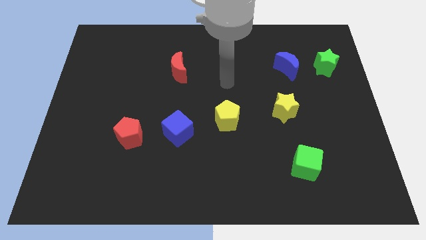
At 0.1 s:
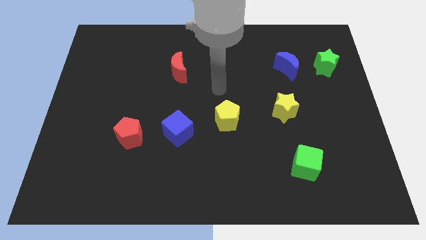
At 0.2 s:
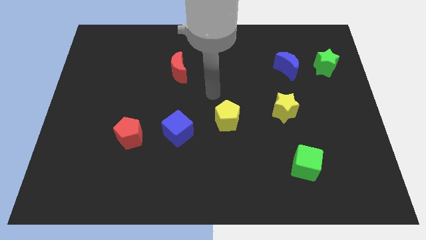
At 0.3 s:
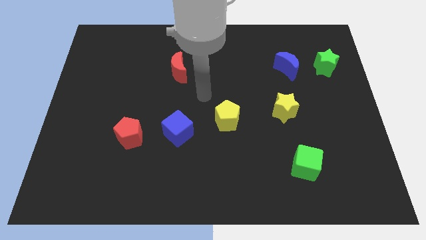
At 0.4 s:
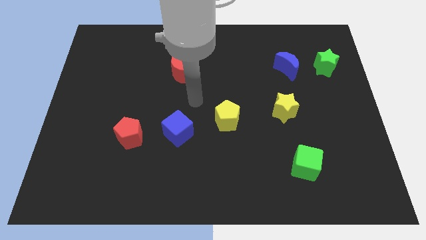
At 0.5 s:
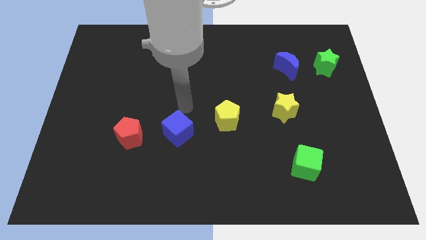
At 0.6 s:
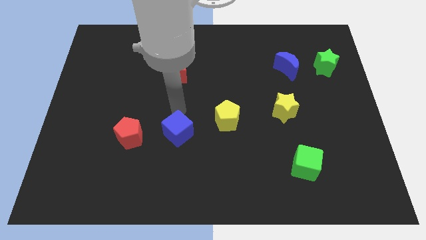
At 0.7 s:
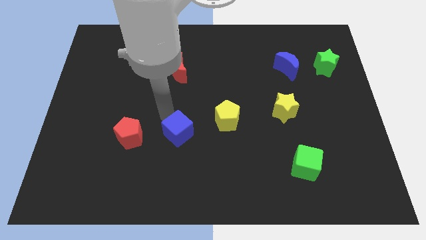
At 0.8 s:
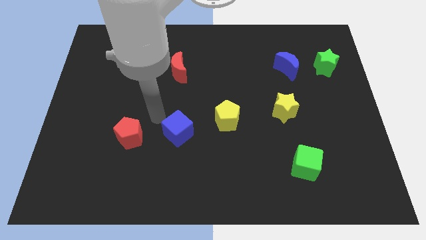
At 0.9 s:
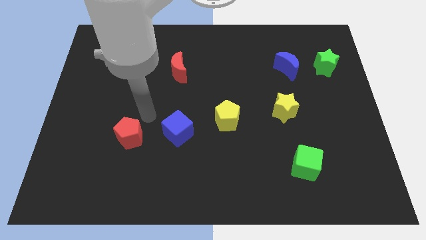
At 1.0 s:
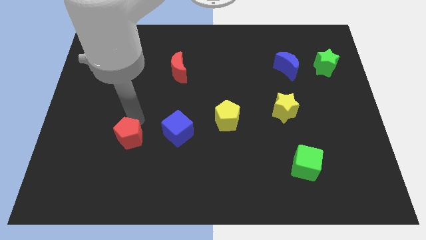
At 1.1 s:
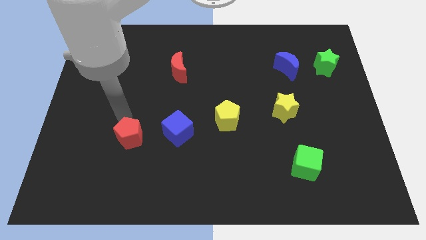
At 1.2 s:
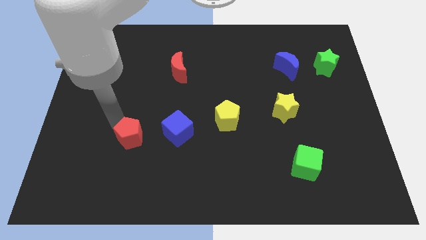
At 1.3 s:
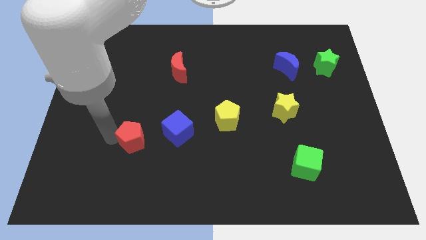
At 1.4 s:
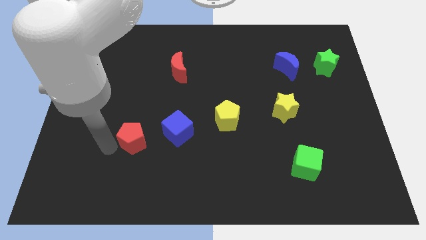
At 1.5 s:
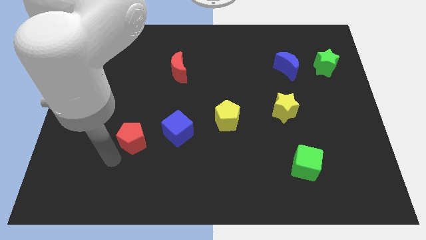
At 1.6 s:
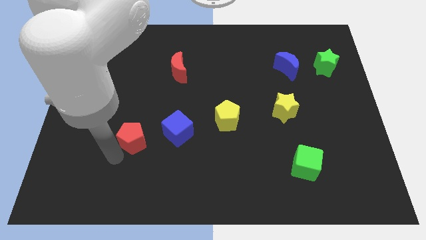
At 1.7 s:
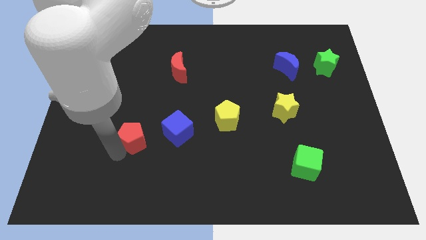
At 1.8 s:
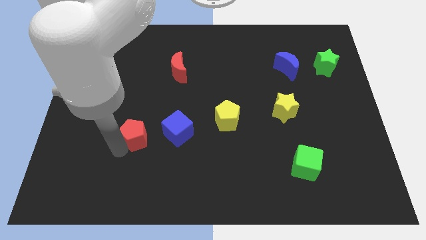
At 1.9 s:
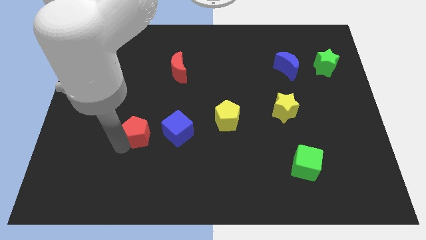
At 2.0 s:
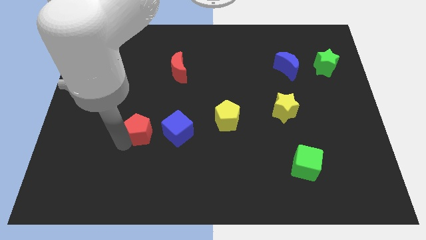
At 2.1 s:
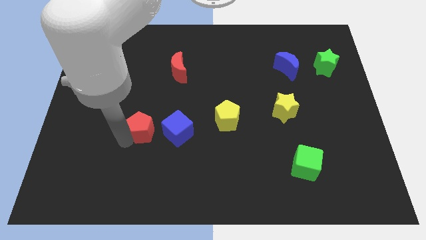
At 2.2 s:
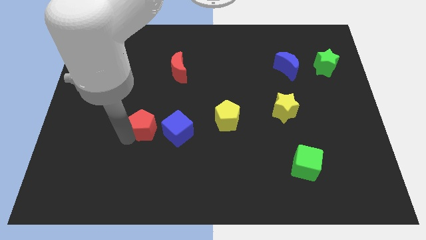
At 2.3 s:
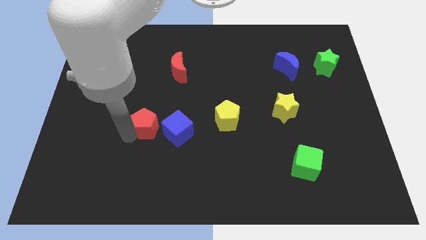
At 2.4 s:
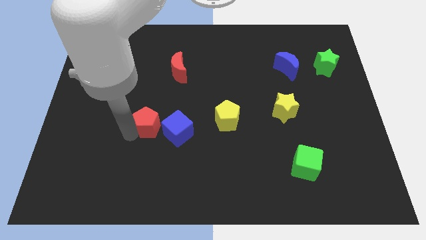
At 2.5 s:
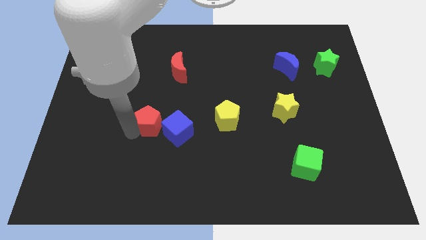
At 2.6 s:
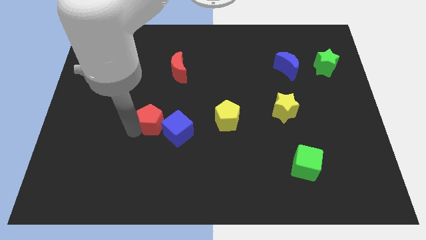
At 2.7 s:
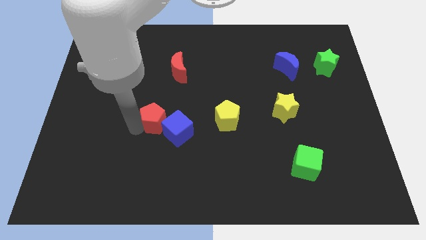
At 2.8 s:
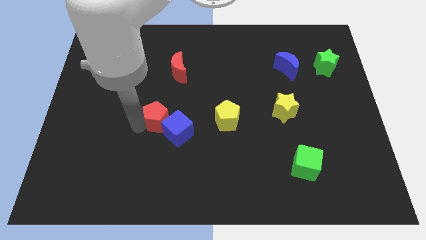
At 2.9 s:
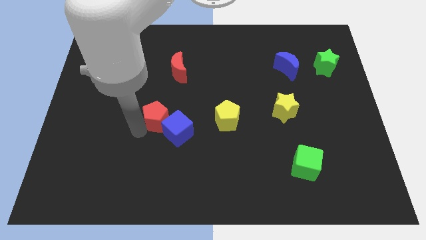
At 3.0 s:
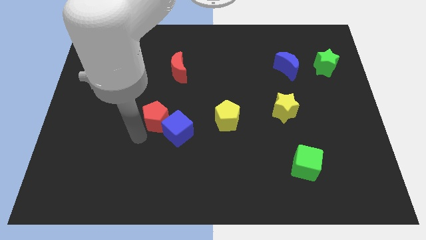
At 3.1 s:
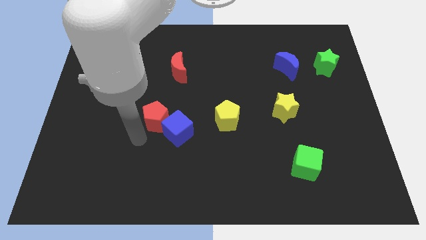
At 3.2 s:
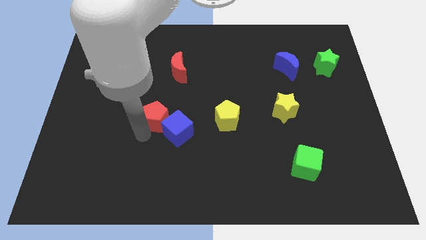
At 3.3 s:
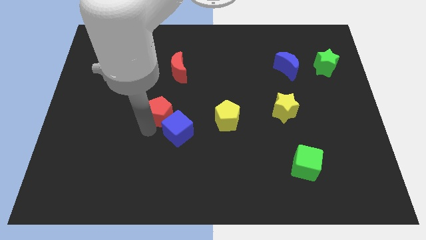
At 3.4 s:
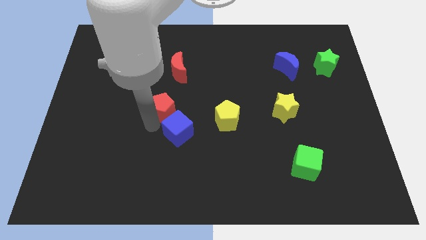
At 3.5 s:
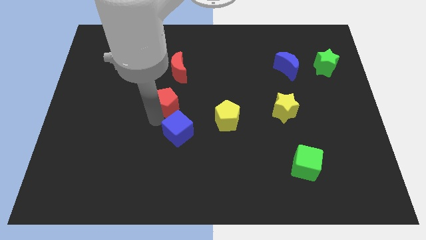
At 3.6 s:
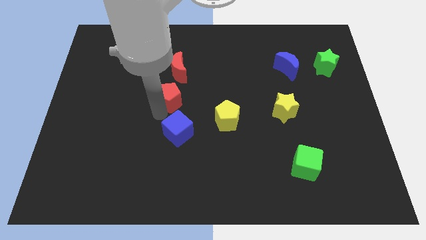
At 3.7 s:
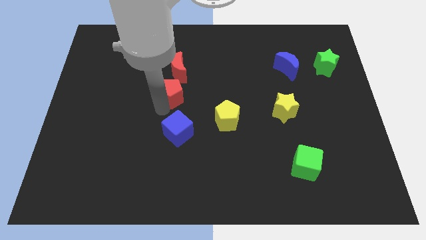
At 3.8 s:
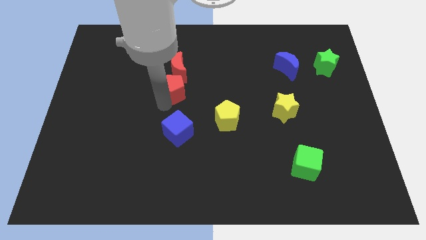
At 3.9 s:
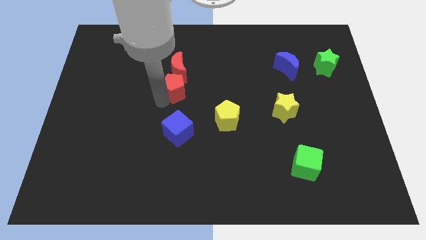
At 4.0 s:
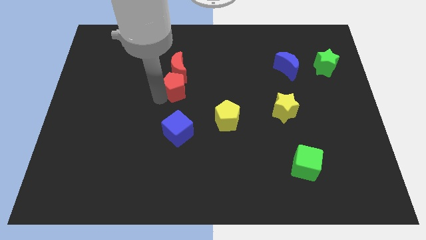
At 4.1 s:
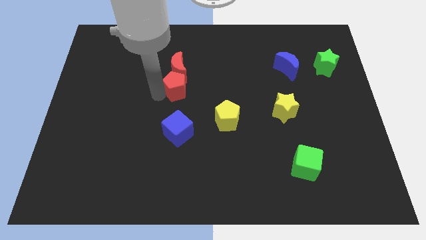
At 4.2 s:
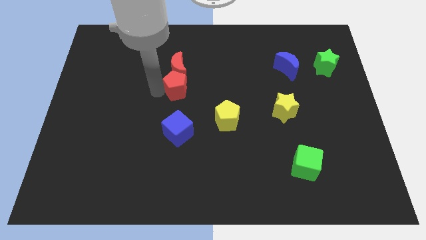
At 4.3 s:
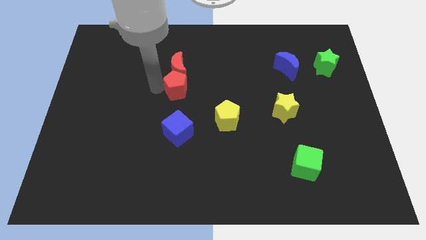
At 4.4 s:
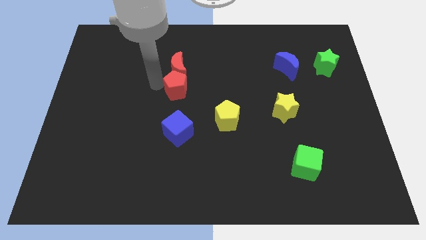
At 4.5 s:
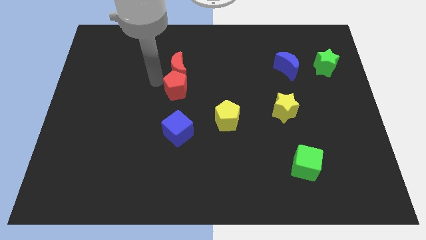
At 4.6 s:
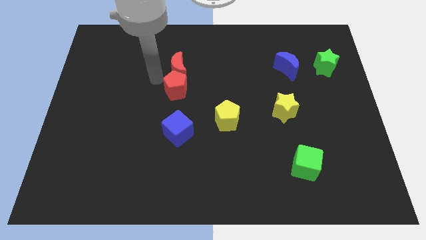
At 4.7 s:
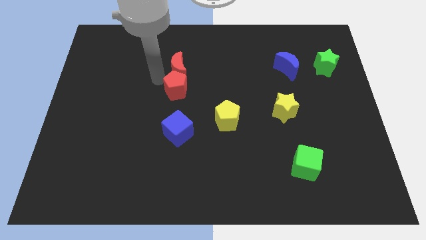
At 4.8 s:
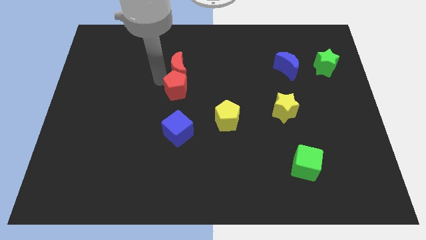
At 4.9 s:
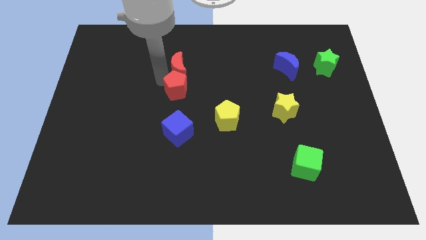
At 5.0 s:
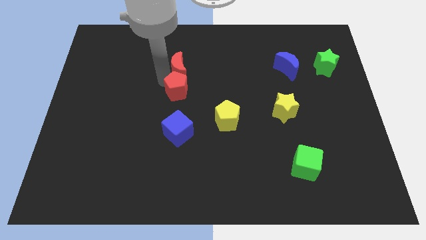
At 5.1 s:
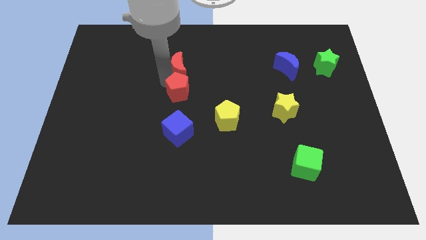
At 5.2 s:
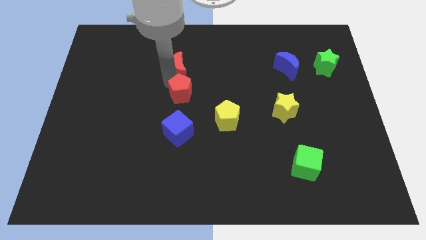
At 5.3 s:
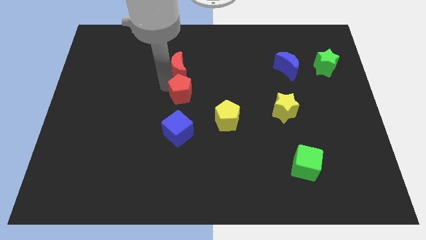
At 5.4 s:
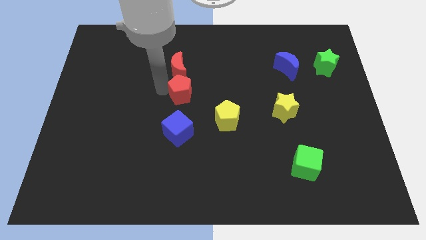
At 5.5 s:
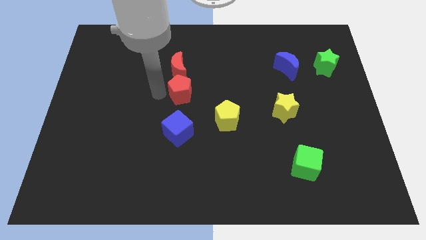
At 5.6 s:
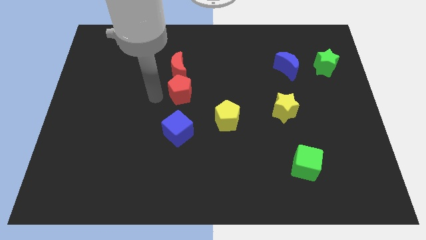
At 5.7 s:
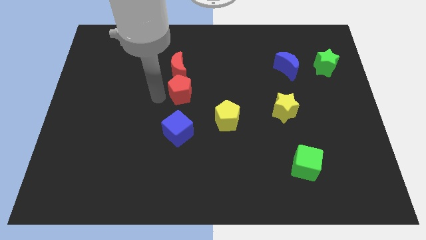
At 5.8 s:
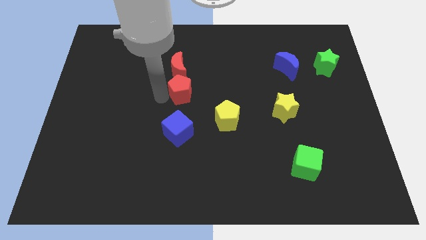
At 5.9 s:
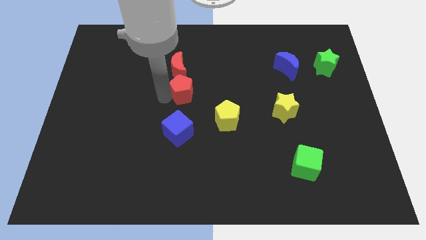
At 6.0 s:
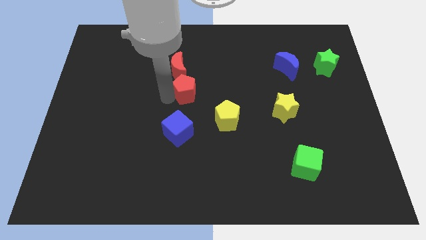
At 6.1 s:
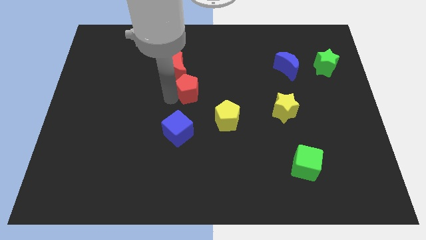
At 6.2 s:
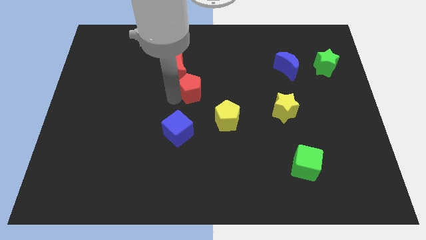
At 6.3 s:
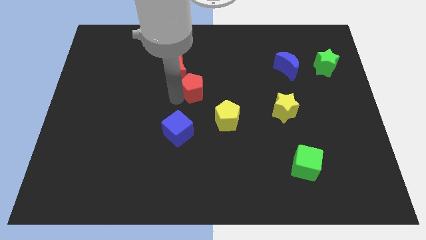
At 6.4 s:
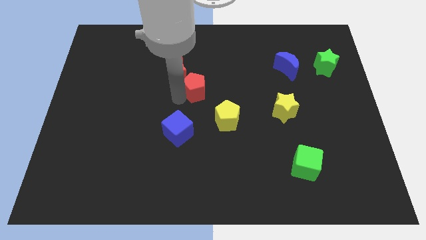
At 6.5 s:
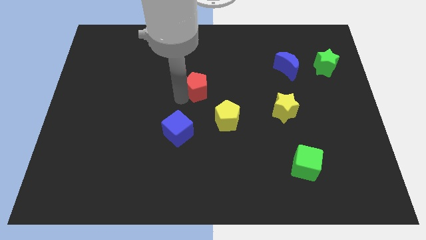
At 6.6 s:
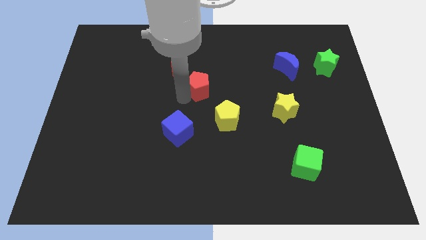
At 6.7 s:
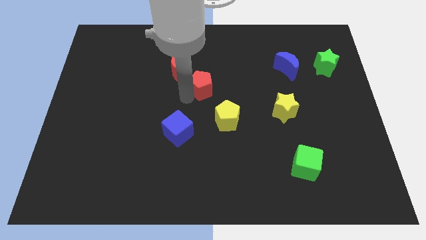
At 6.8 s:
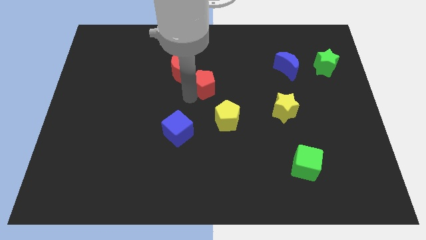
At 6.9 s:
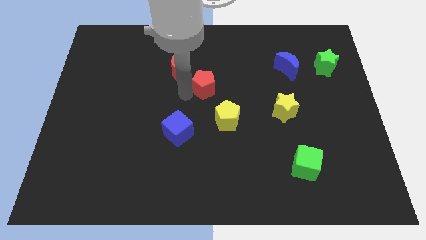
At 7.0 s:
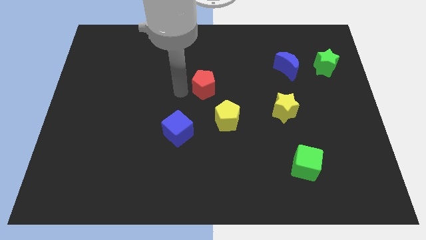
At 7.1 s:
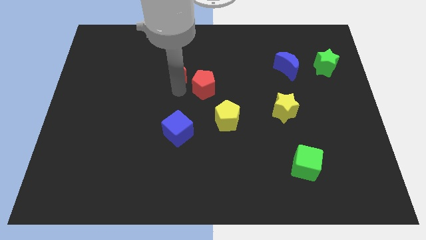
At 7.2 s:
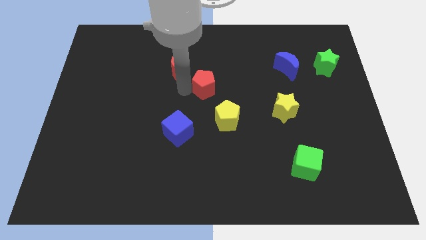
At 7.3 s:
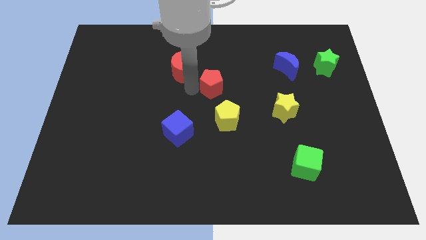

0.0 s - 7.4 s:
slide the red pentagon to the top of the yellow pentagon

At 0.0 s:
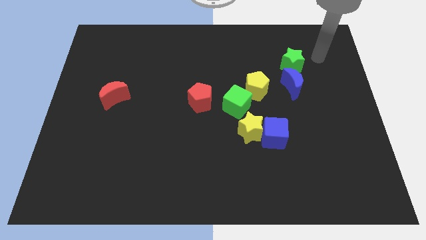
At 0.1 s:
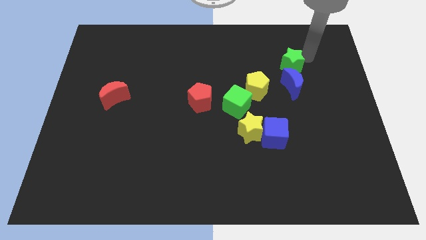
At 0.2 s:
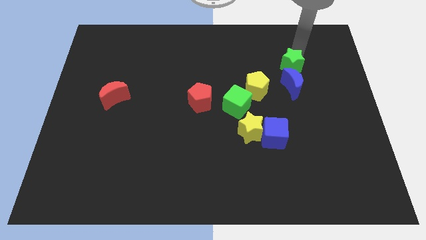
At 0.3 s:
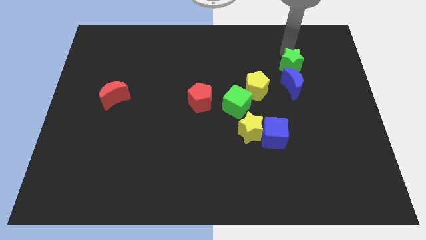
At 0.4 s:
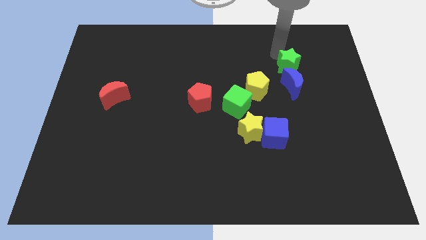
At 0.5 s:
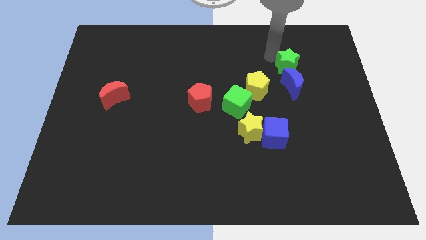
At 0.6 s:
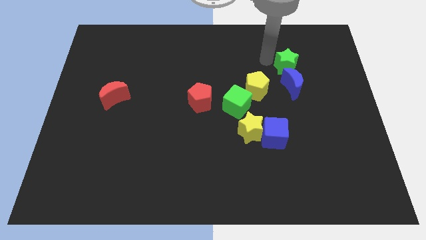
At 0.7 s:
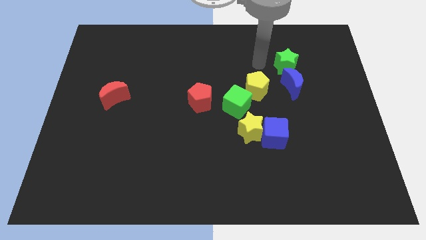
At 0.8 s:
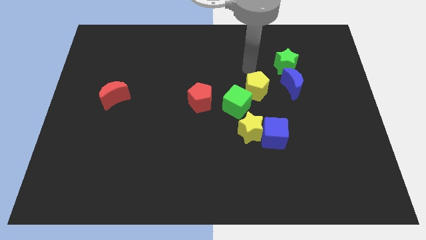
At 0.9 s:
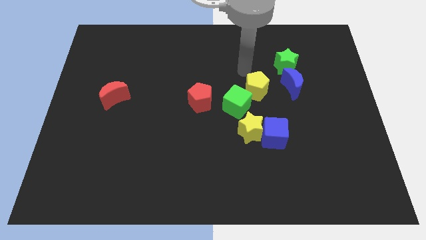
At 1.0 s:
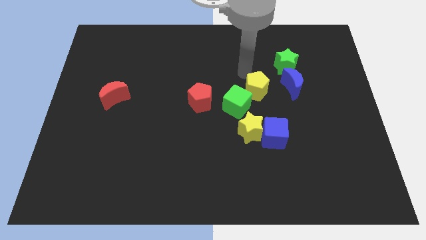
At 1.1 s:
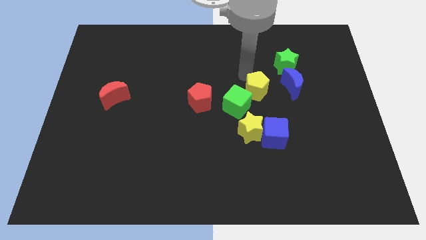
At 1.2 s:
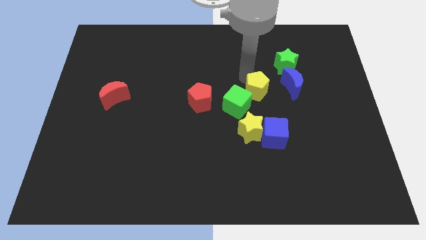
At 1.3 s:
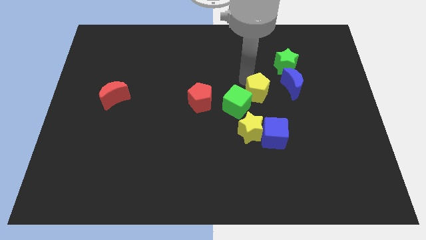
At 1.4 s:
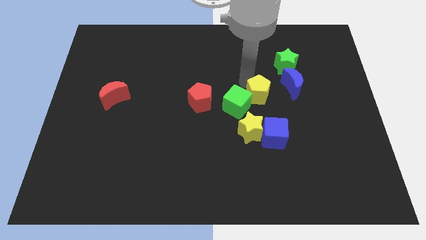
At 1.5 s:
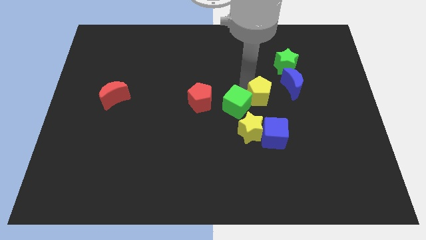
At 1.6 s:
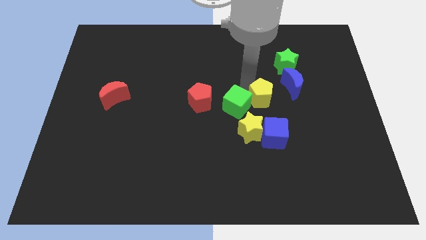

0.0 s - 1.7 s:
put the yellow pentagon to the top right side of the yellow star
